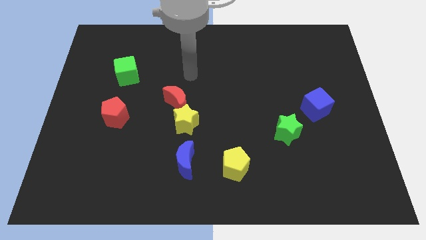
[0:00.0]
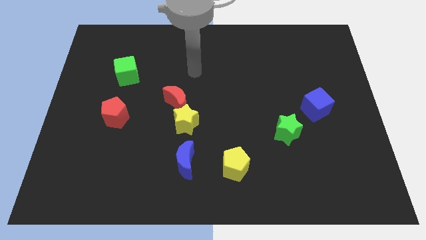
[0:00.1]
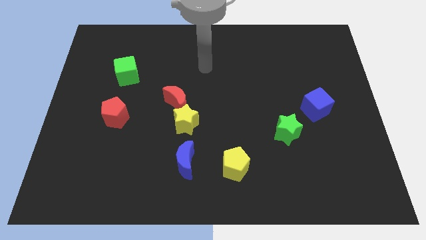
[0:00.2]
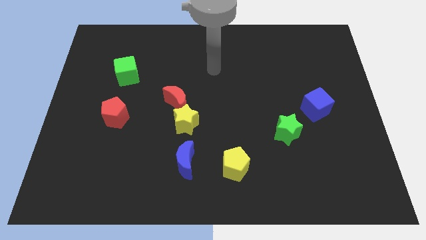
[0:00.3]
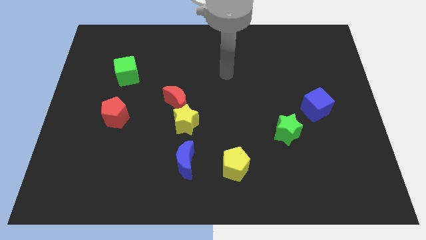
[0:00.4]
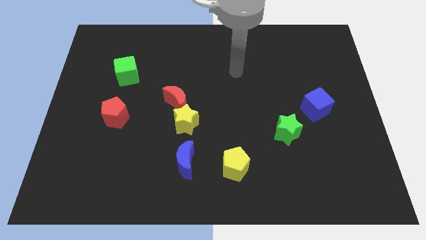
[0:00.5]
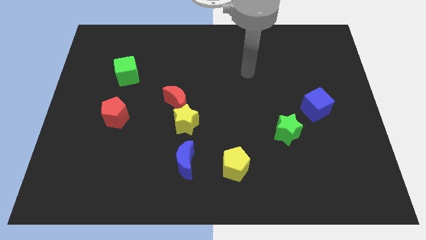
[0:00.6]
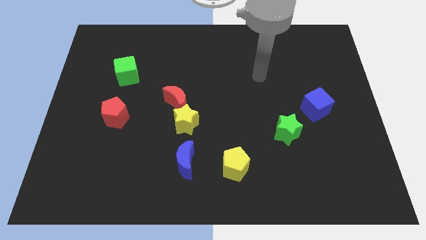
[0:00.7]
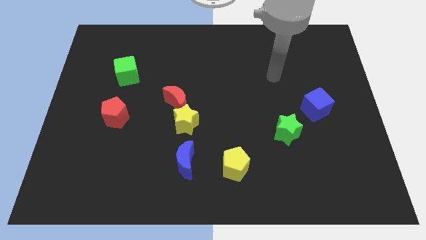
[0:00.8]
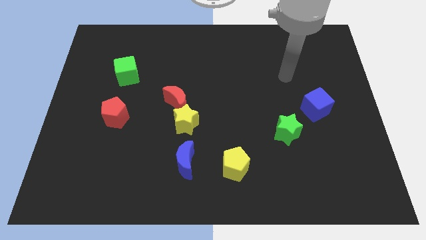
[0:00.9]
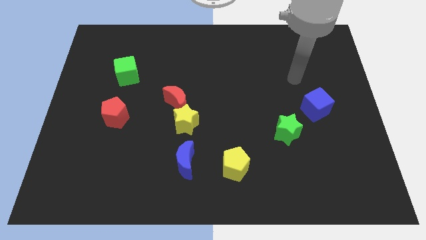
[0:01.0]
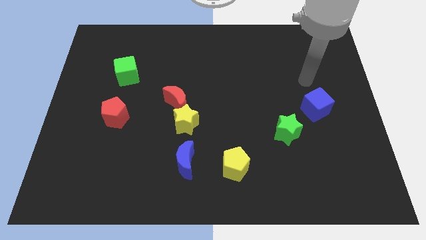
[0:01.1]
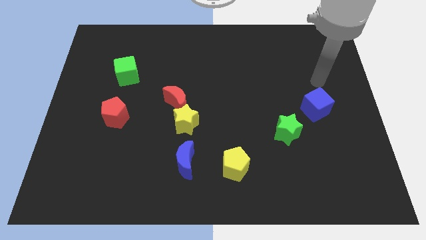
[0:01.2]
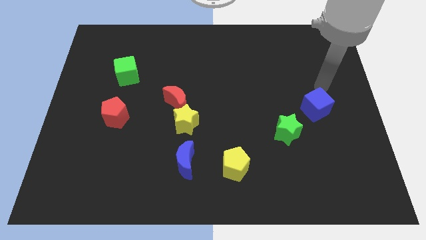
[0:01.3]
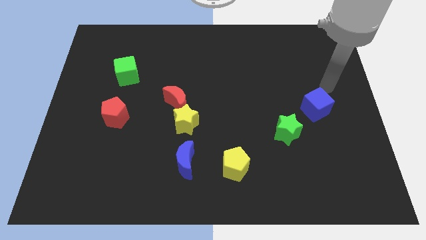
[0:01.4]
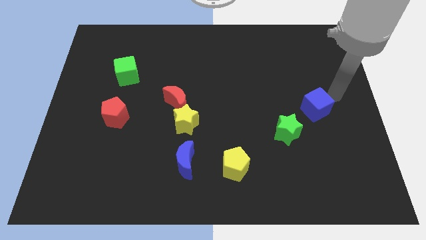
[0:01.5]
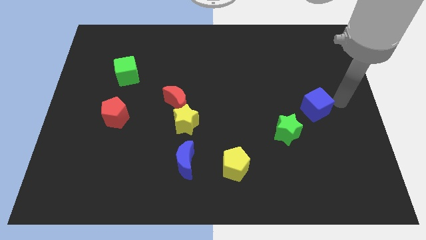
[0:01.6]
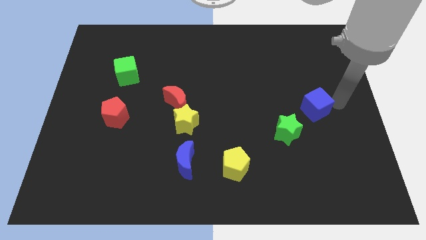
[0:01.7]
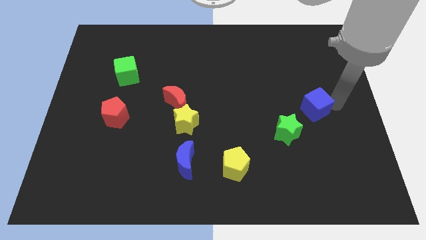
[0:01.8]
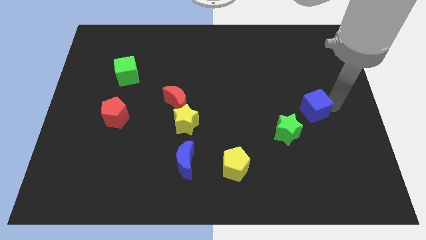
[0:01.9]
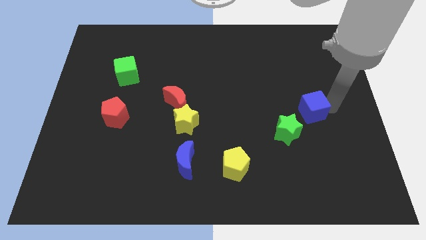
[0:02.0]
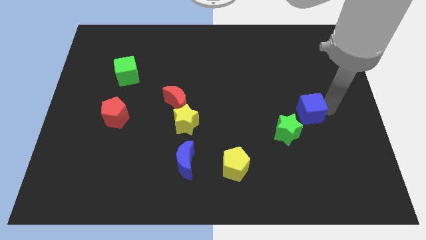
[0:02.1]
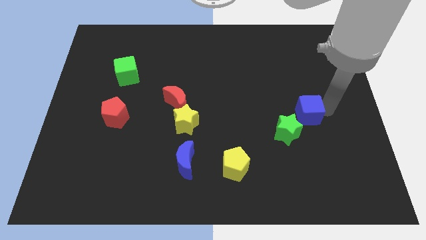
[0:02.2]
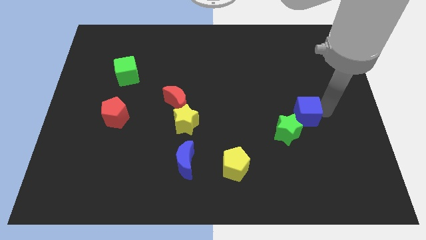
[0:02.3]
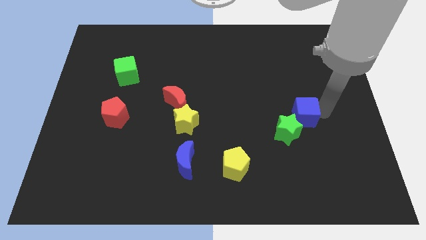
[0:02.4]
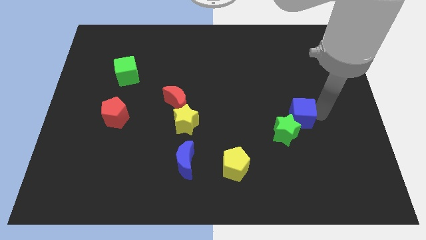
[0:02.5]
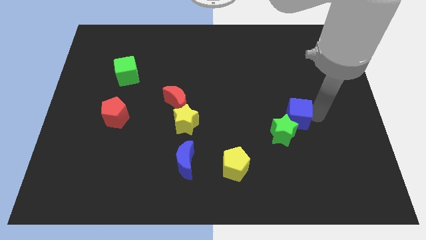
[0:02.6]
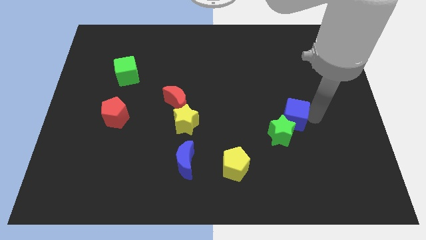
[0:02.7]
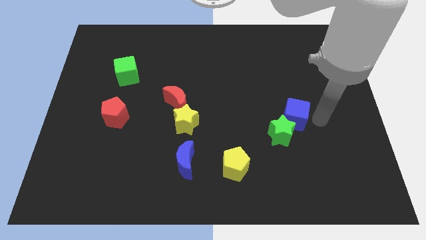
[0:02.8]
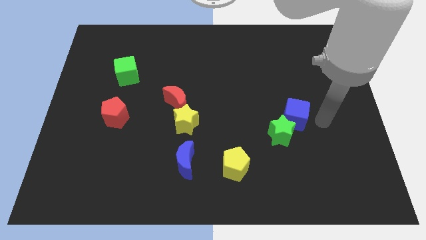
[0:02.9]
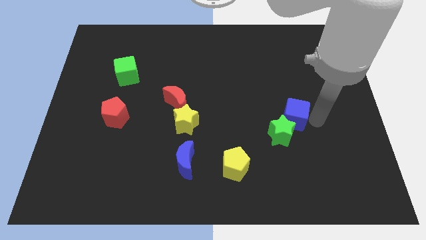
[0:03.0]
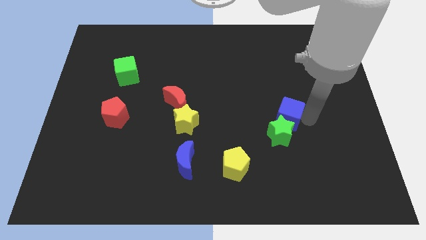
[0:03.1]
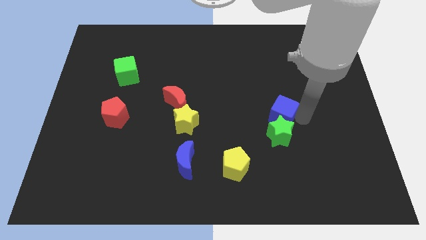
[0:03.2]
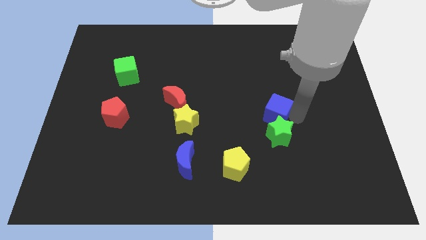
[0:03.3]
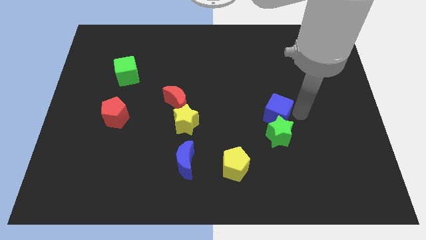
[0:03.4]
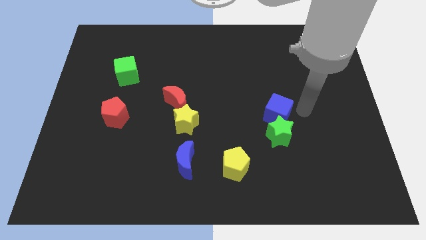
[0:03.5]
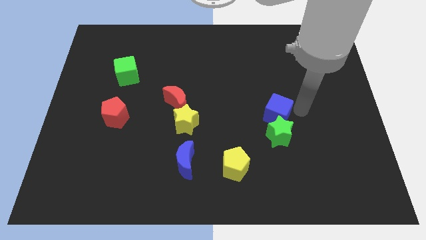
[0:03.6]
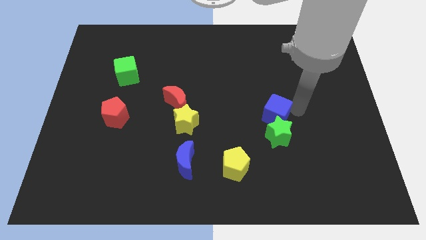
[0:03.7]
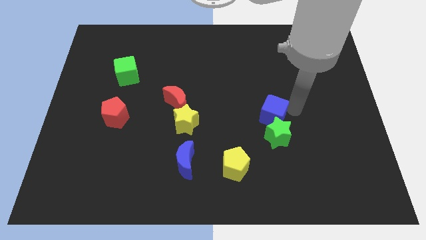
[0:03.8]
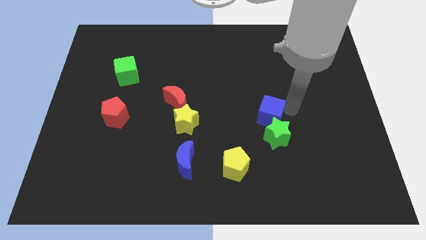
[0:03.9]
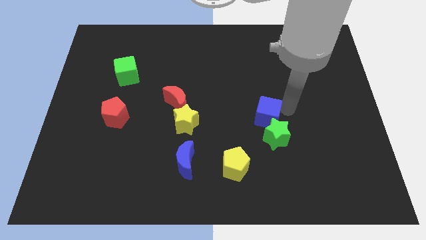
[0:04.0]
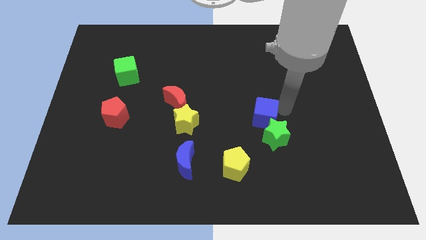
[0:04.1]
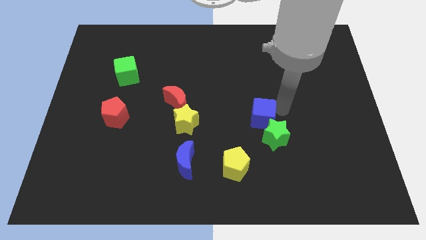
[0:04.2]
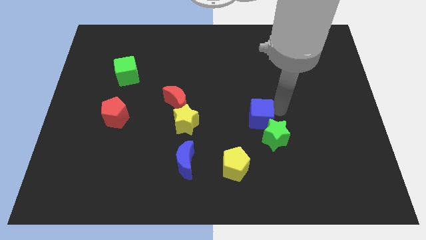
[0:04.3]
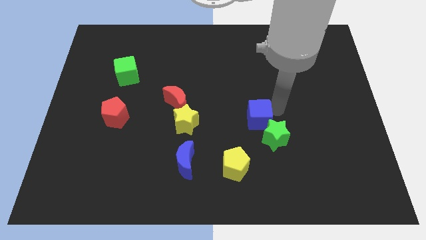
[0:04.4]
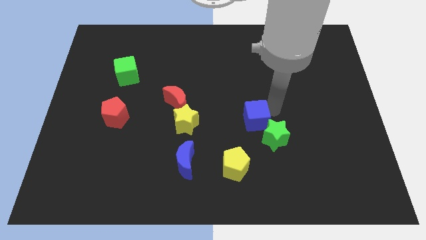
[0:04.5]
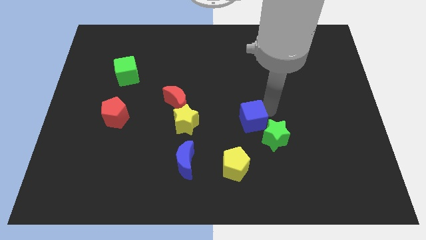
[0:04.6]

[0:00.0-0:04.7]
put the blue cube to the left side of the green star

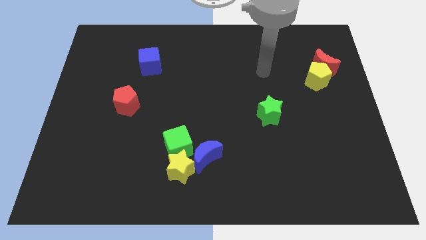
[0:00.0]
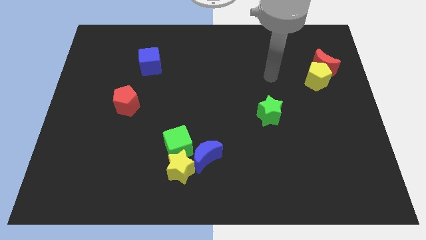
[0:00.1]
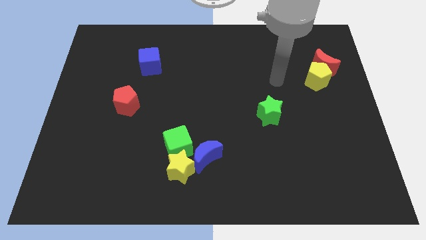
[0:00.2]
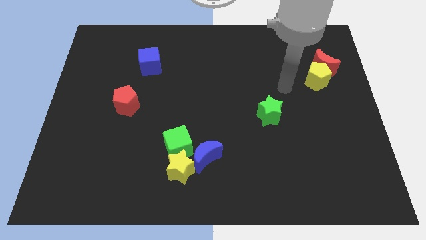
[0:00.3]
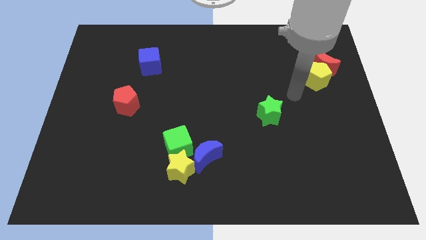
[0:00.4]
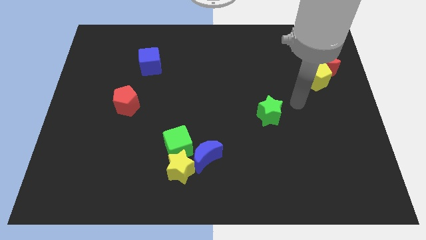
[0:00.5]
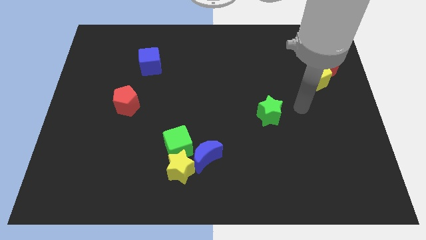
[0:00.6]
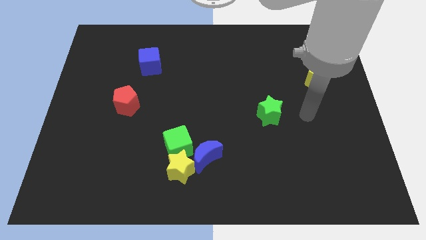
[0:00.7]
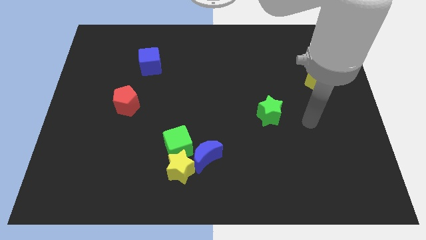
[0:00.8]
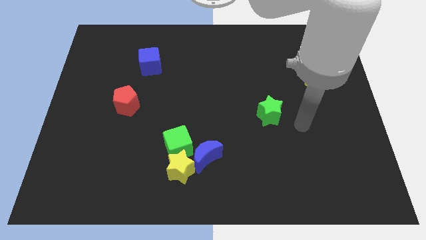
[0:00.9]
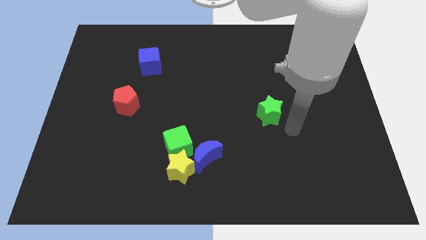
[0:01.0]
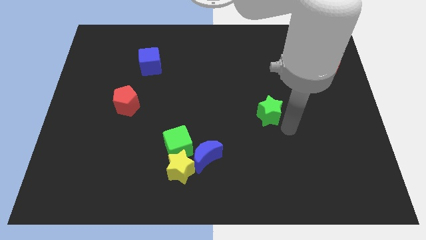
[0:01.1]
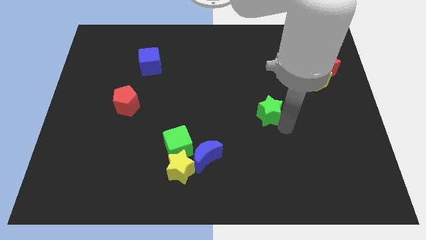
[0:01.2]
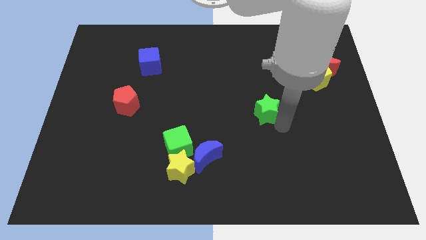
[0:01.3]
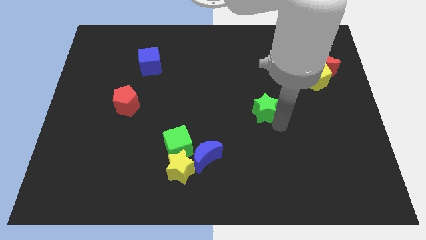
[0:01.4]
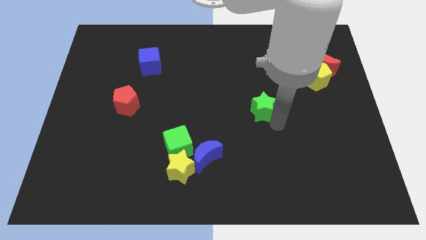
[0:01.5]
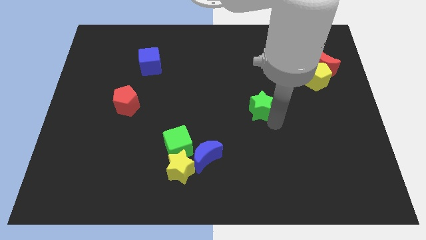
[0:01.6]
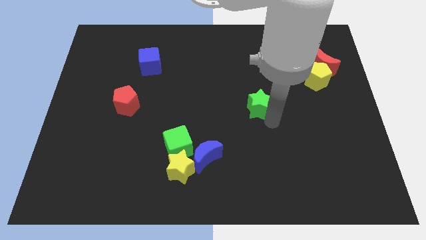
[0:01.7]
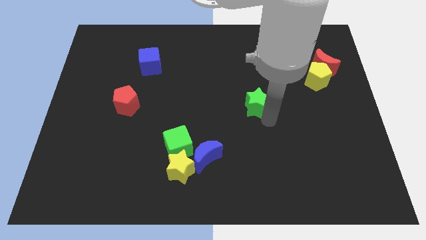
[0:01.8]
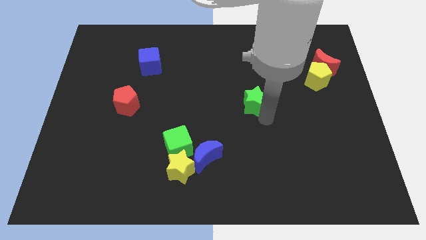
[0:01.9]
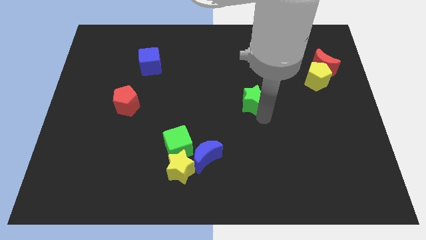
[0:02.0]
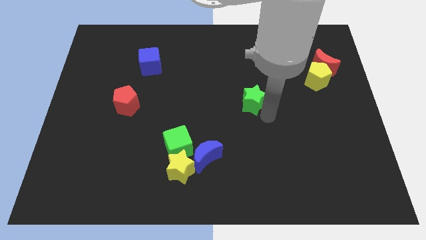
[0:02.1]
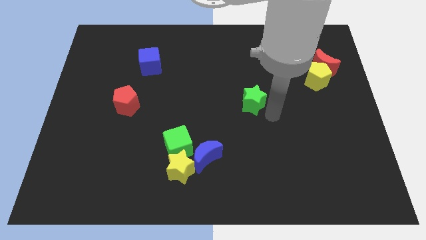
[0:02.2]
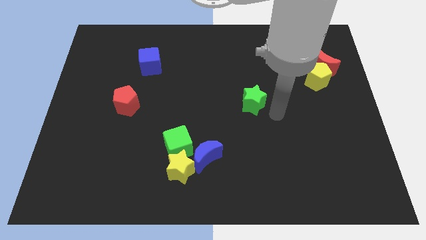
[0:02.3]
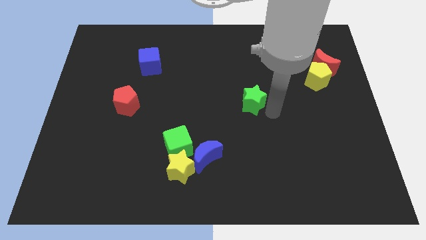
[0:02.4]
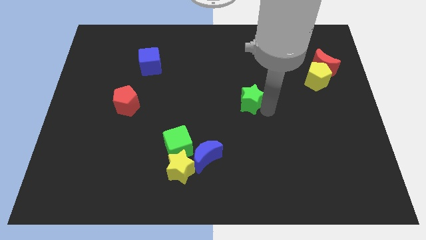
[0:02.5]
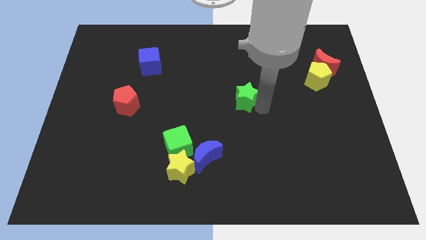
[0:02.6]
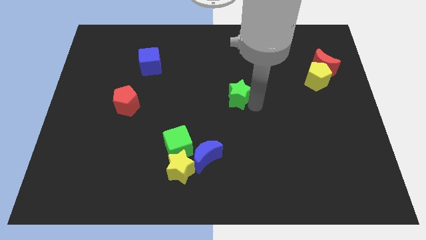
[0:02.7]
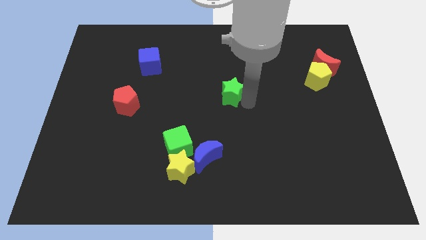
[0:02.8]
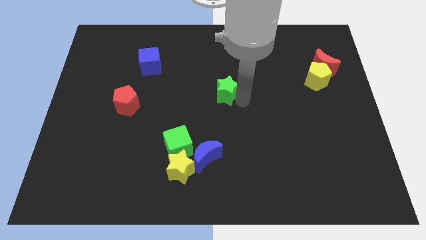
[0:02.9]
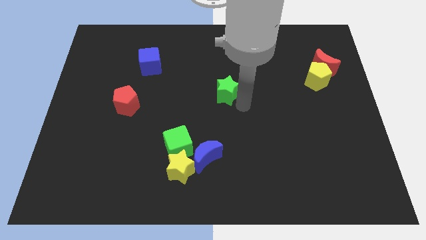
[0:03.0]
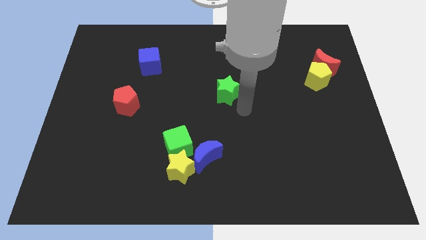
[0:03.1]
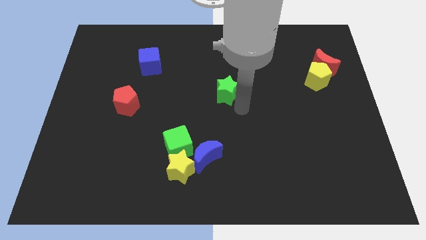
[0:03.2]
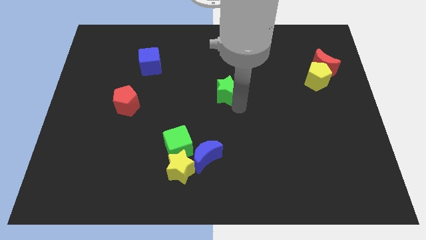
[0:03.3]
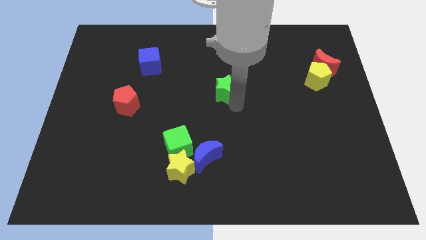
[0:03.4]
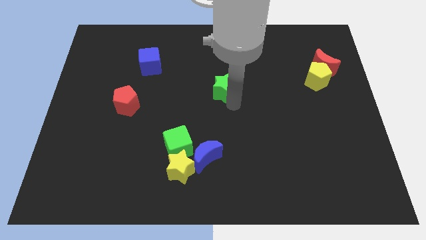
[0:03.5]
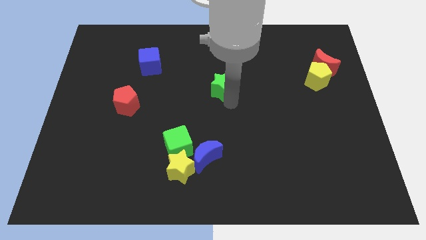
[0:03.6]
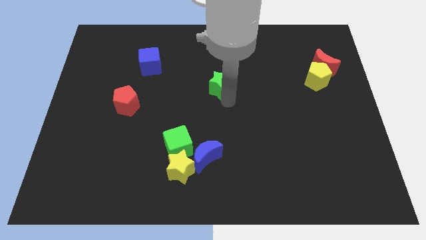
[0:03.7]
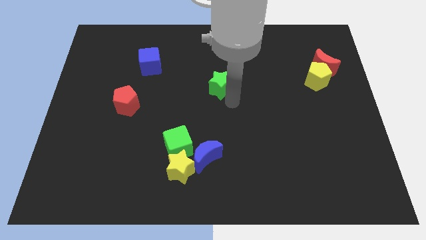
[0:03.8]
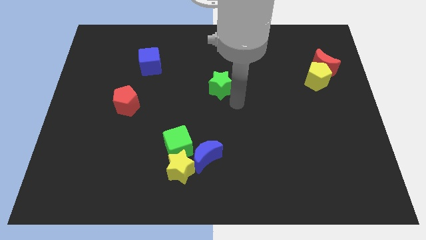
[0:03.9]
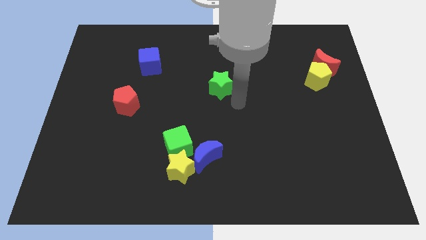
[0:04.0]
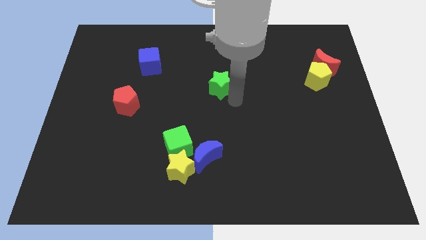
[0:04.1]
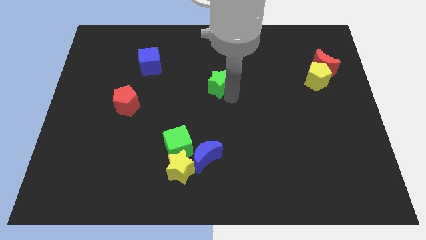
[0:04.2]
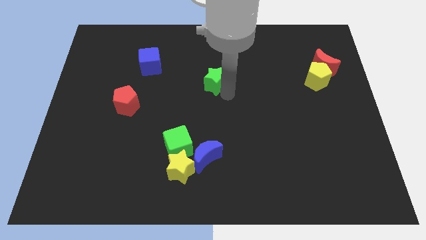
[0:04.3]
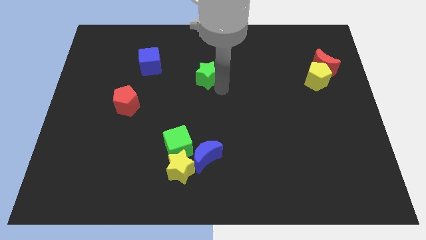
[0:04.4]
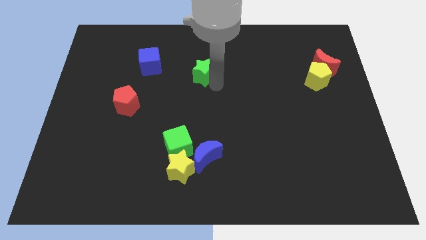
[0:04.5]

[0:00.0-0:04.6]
put the green star just right of the blue cube
